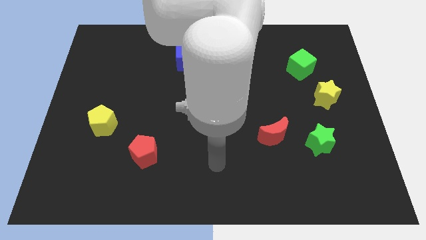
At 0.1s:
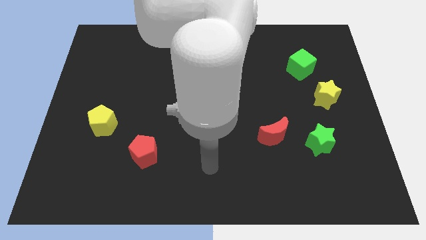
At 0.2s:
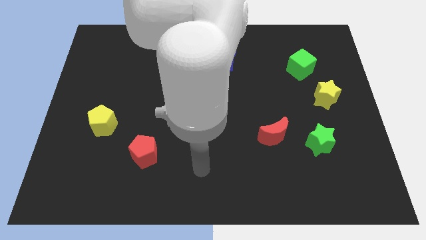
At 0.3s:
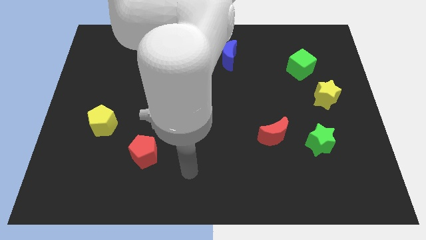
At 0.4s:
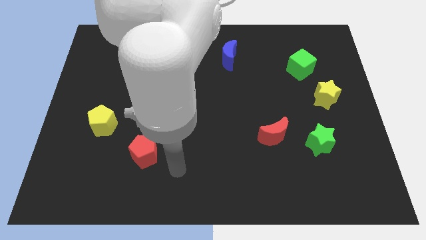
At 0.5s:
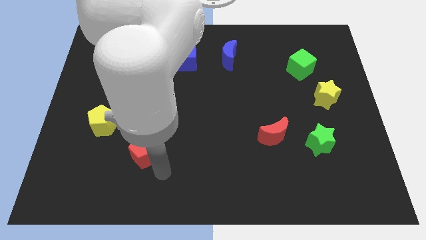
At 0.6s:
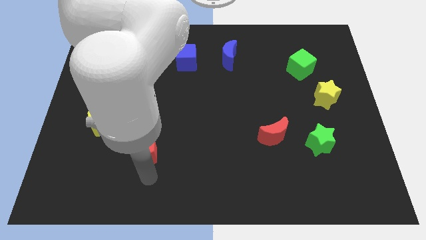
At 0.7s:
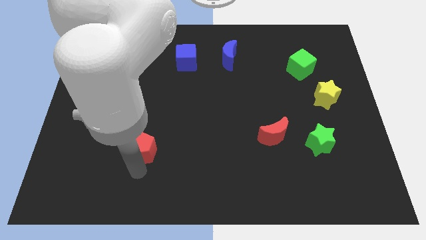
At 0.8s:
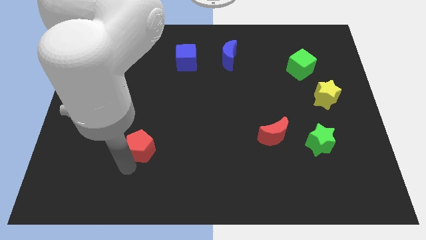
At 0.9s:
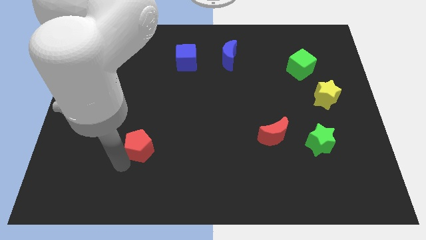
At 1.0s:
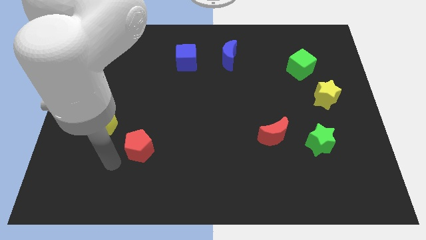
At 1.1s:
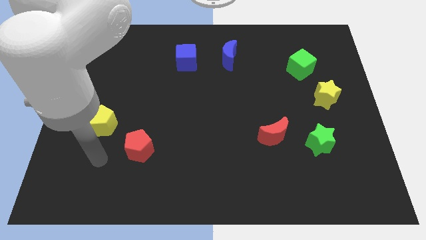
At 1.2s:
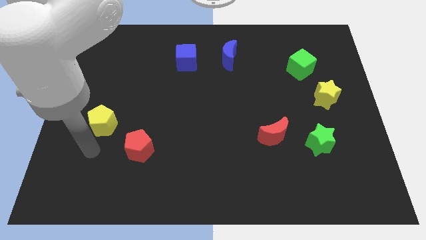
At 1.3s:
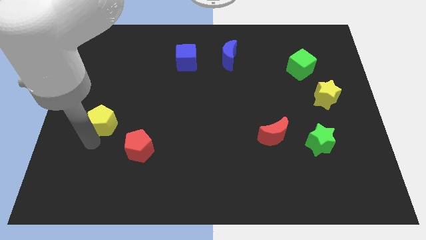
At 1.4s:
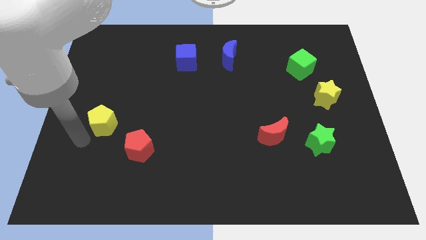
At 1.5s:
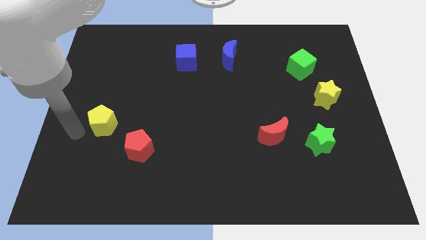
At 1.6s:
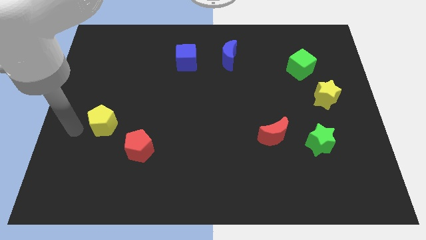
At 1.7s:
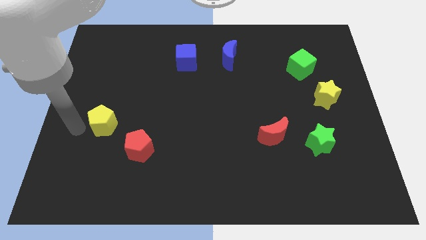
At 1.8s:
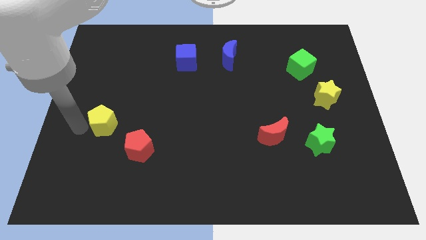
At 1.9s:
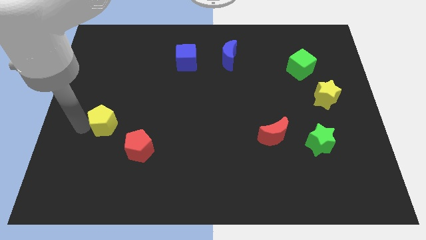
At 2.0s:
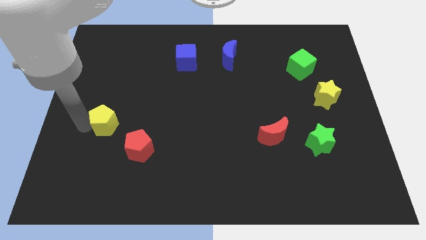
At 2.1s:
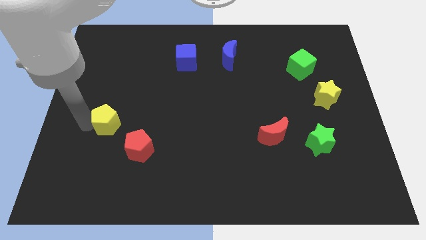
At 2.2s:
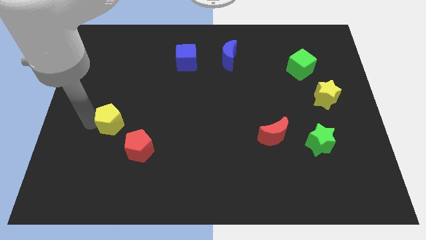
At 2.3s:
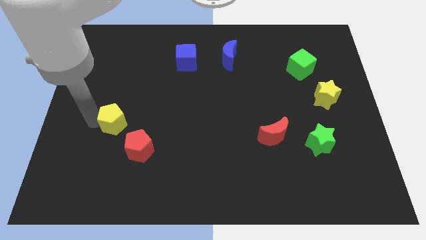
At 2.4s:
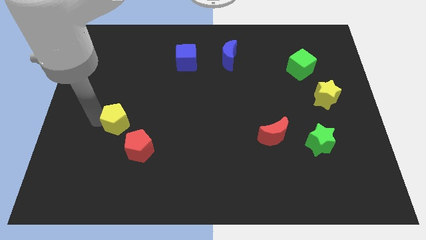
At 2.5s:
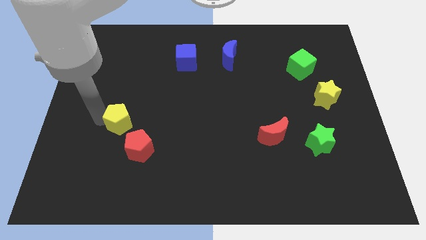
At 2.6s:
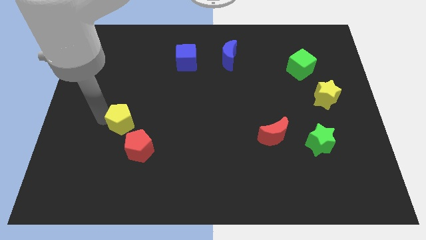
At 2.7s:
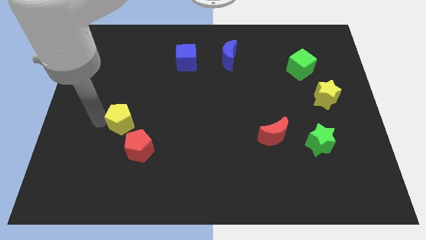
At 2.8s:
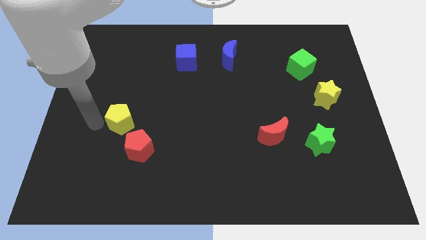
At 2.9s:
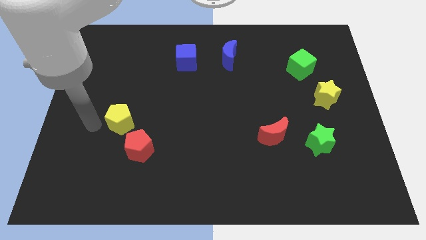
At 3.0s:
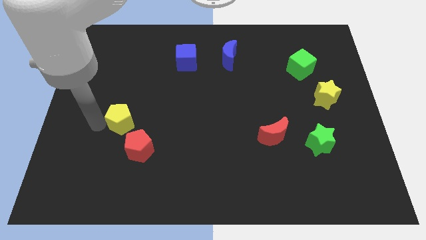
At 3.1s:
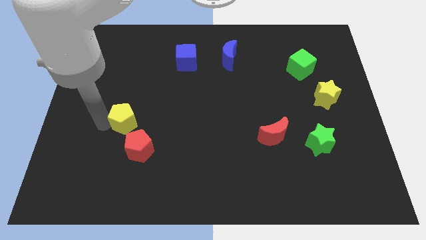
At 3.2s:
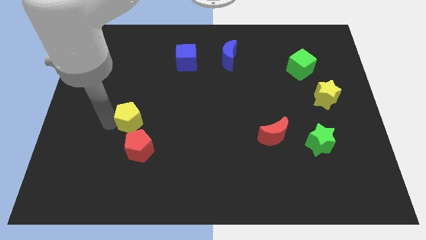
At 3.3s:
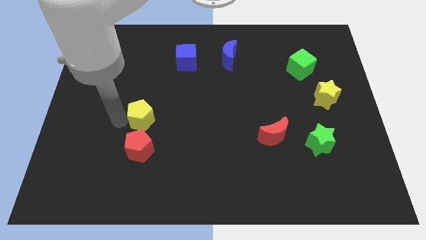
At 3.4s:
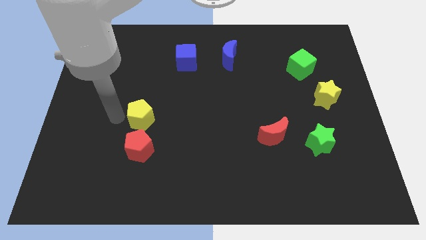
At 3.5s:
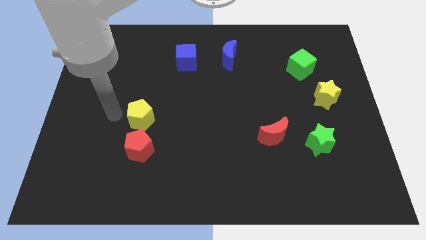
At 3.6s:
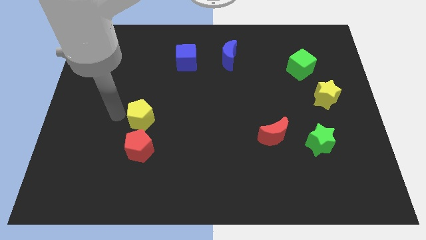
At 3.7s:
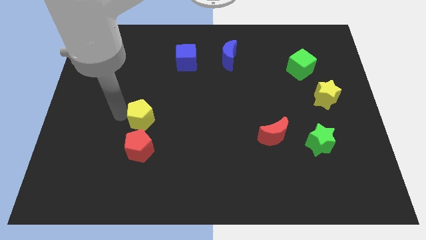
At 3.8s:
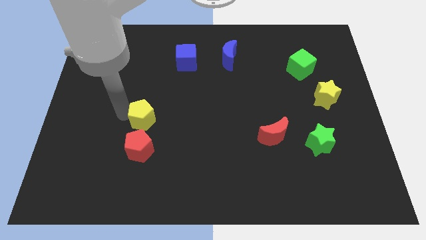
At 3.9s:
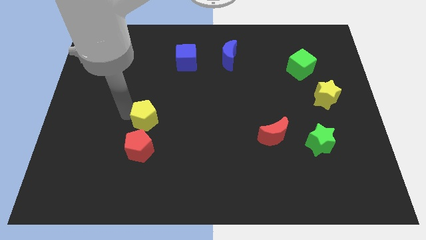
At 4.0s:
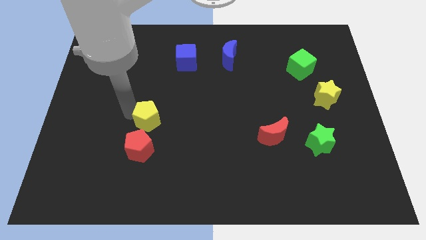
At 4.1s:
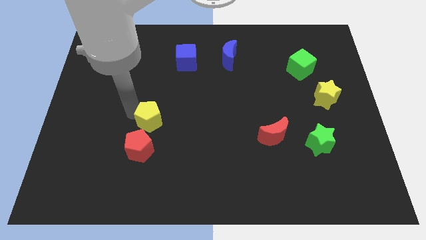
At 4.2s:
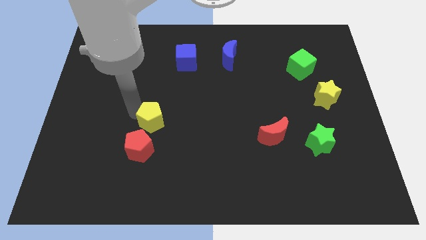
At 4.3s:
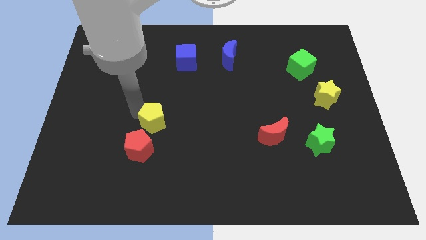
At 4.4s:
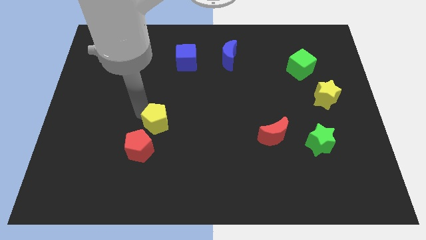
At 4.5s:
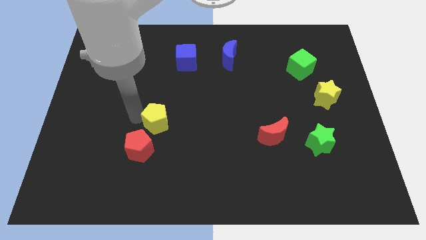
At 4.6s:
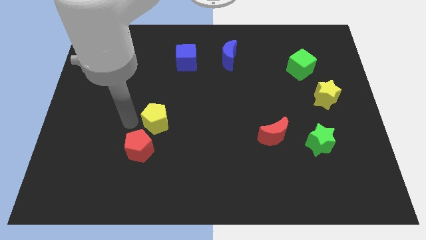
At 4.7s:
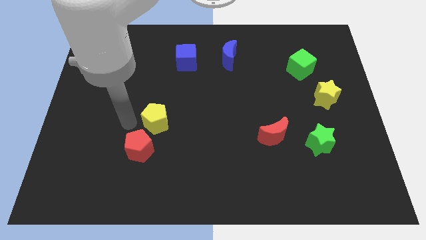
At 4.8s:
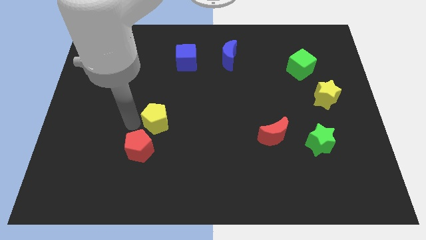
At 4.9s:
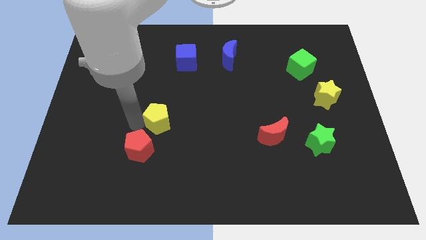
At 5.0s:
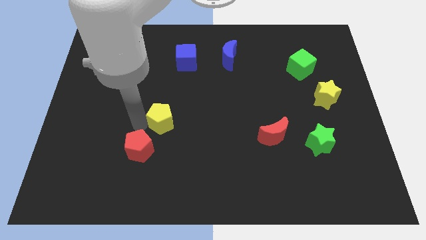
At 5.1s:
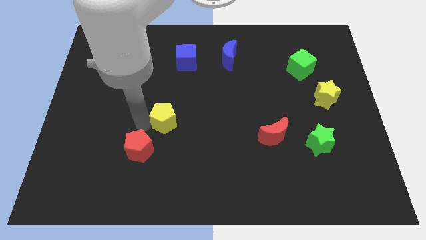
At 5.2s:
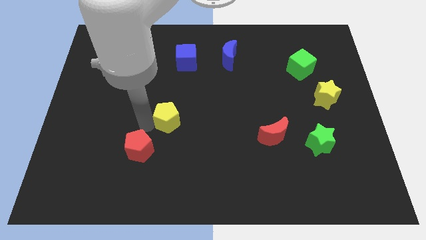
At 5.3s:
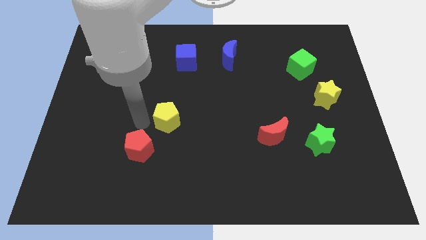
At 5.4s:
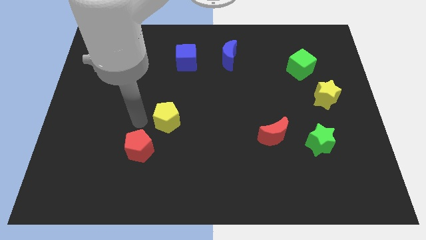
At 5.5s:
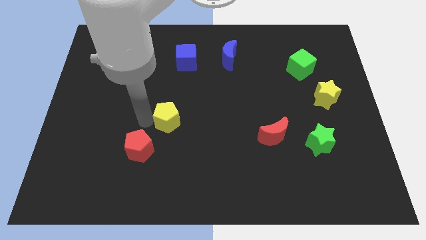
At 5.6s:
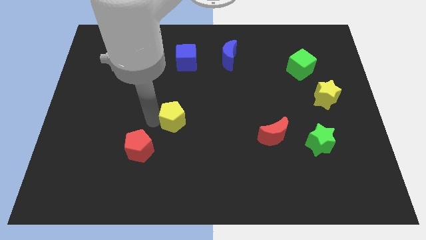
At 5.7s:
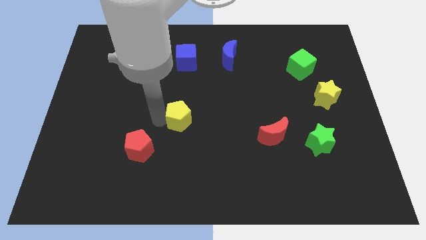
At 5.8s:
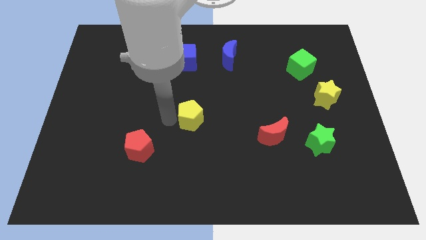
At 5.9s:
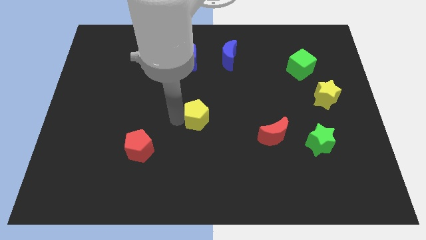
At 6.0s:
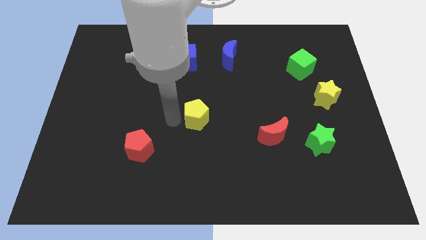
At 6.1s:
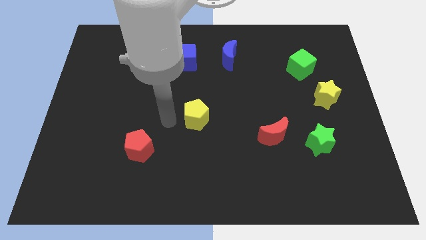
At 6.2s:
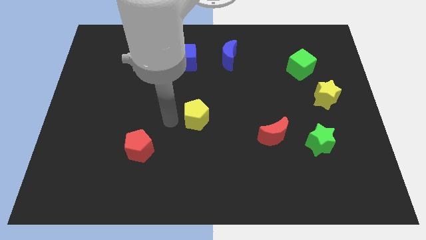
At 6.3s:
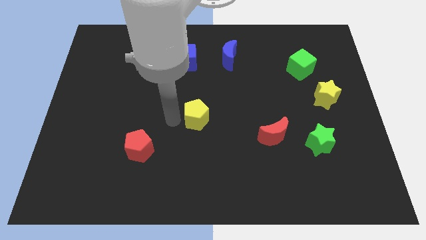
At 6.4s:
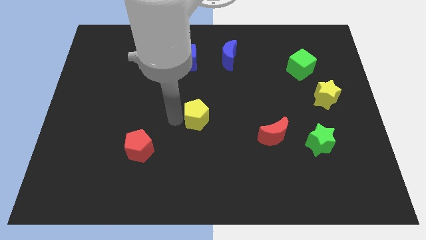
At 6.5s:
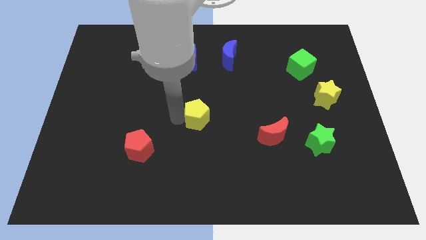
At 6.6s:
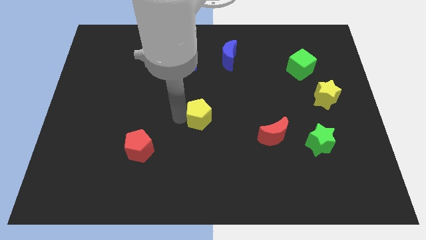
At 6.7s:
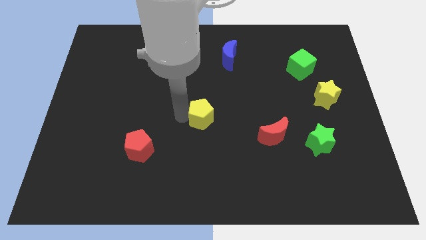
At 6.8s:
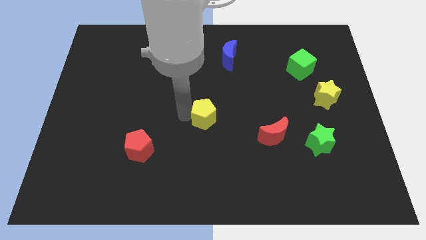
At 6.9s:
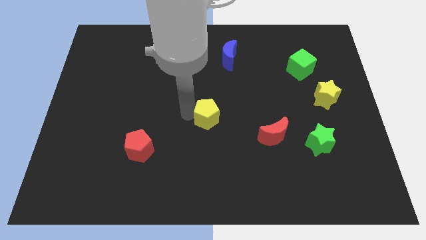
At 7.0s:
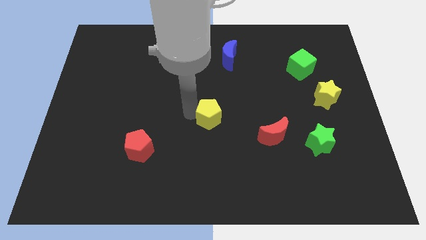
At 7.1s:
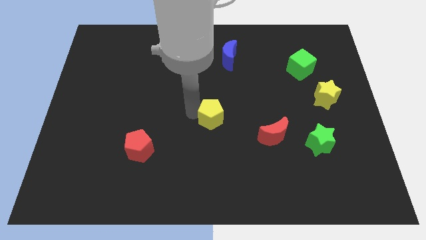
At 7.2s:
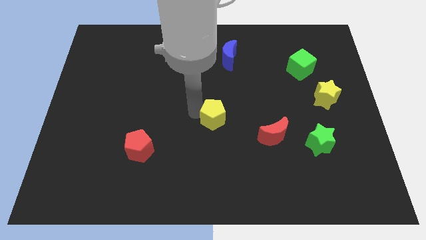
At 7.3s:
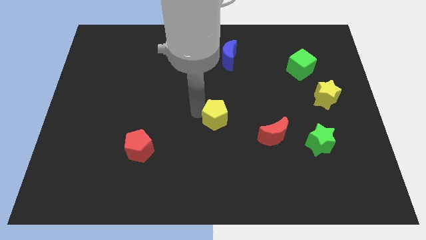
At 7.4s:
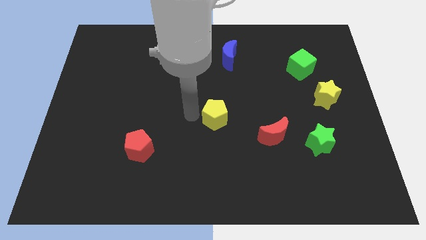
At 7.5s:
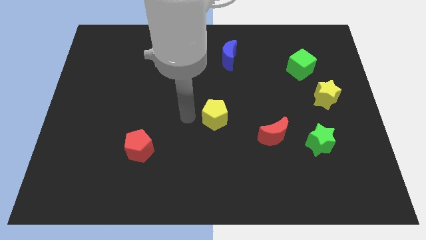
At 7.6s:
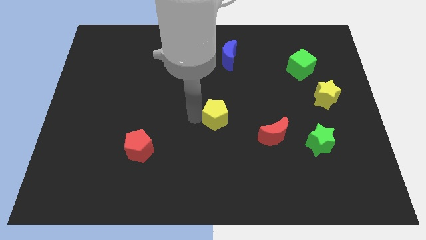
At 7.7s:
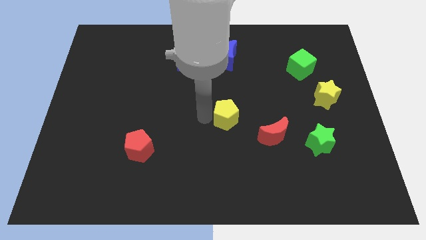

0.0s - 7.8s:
put the yellow pentagon diagonally up and to the left of the red moon
